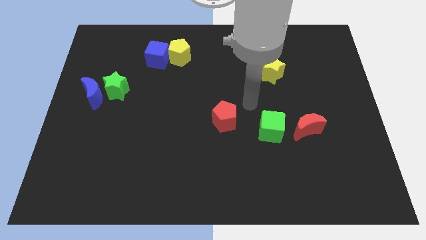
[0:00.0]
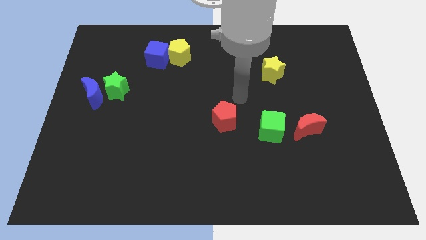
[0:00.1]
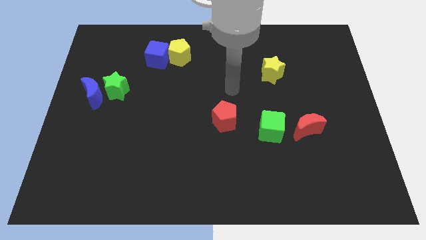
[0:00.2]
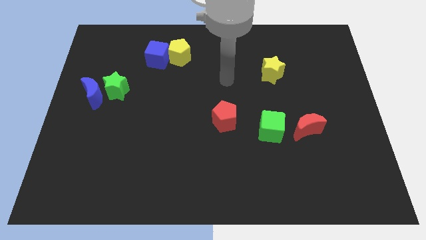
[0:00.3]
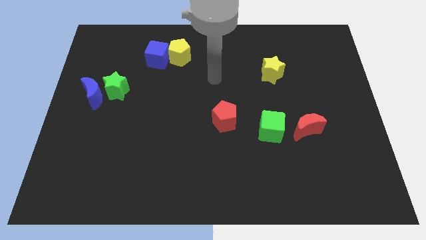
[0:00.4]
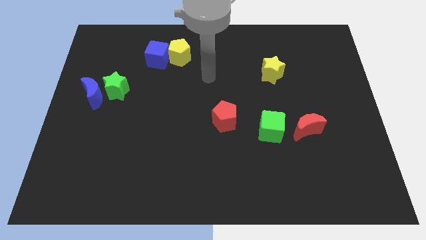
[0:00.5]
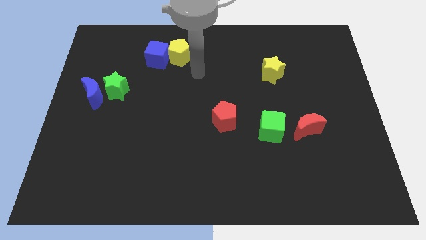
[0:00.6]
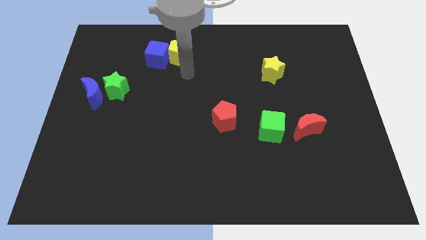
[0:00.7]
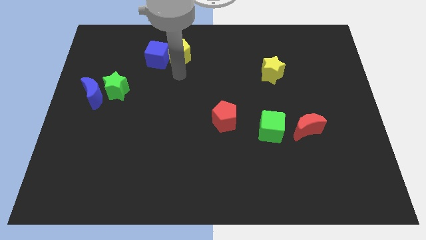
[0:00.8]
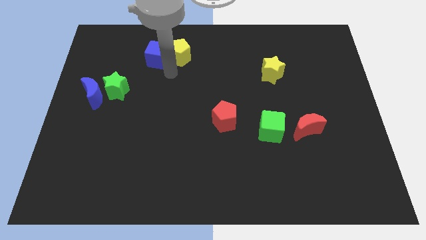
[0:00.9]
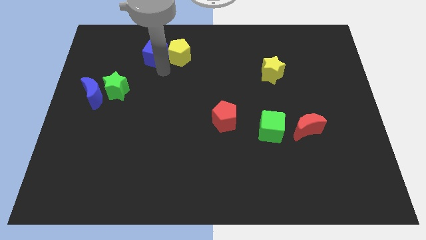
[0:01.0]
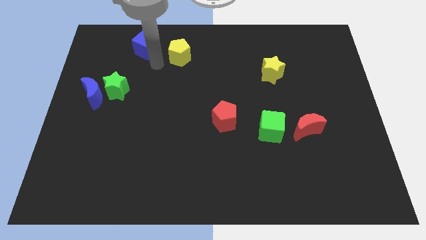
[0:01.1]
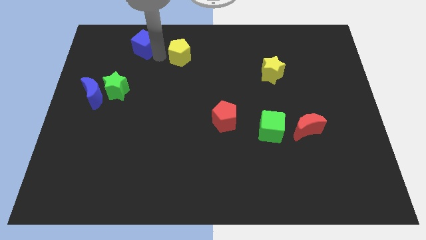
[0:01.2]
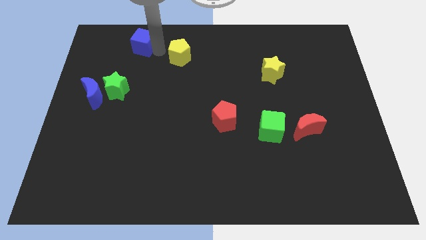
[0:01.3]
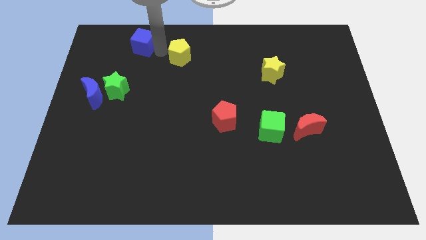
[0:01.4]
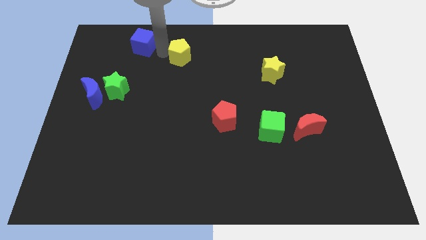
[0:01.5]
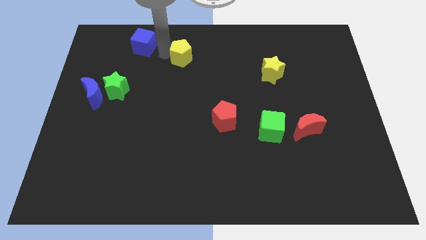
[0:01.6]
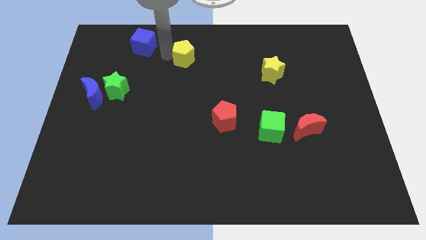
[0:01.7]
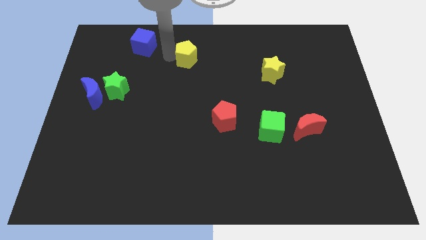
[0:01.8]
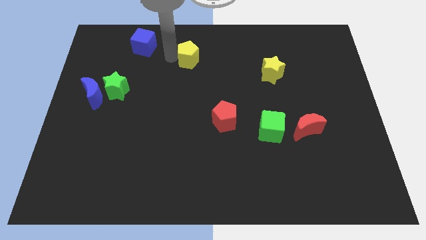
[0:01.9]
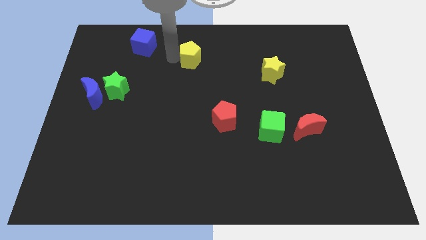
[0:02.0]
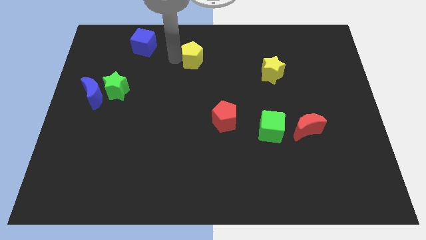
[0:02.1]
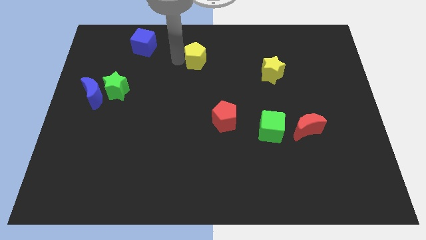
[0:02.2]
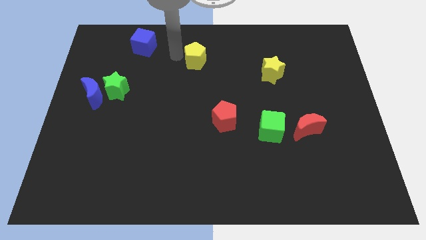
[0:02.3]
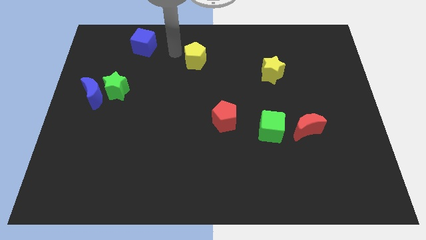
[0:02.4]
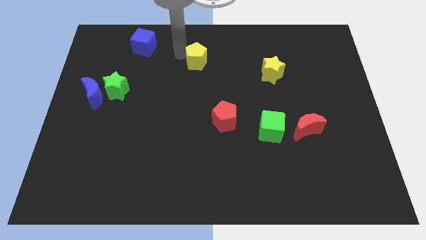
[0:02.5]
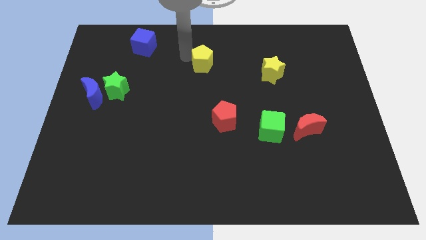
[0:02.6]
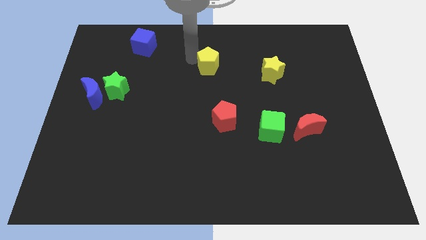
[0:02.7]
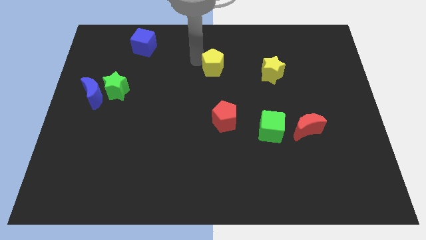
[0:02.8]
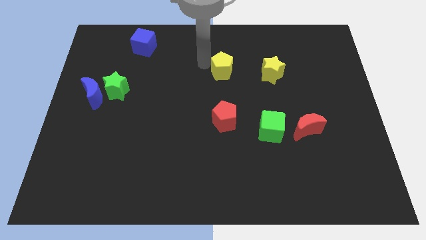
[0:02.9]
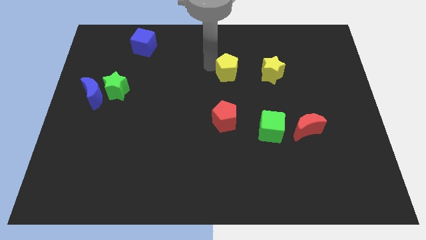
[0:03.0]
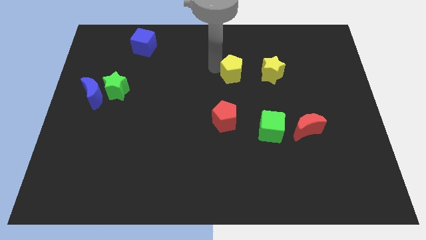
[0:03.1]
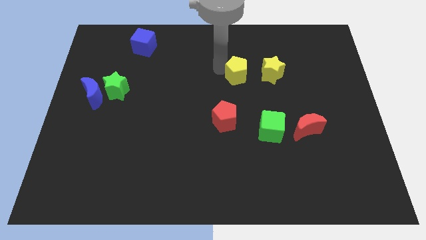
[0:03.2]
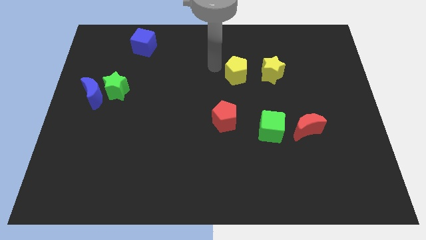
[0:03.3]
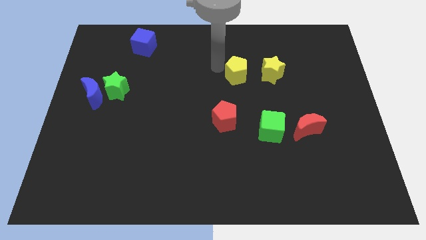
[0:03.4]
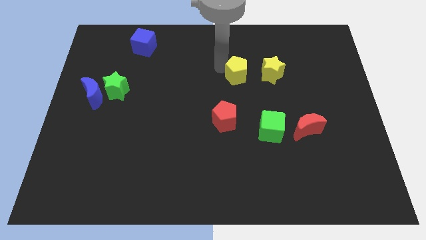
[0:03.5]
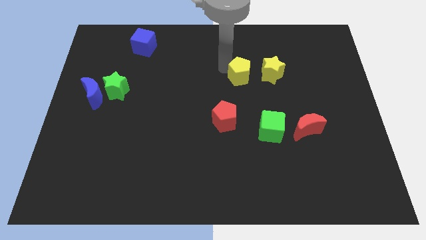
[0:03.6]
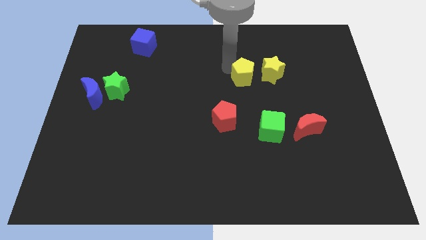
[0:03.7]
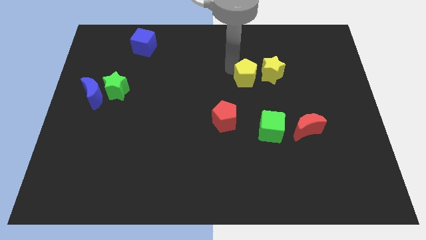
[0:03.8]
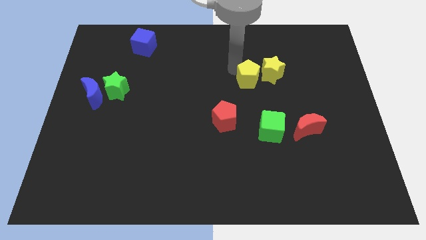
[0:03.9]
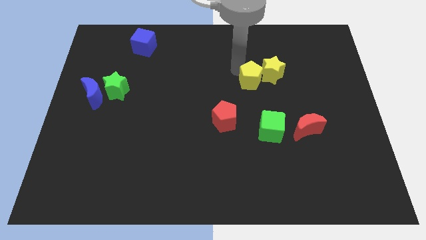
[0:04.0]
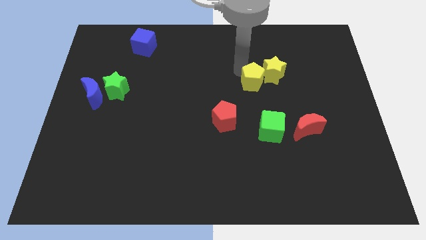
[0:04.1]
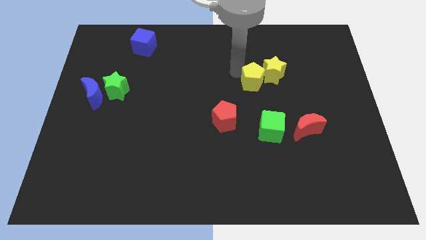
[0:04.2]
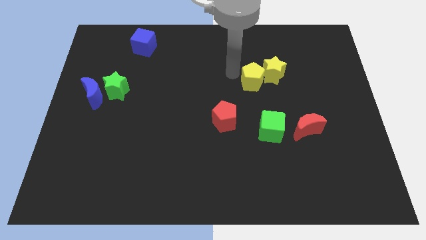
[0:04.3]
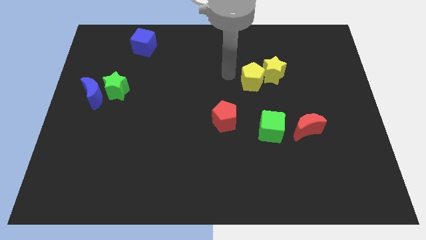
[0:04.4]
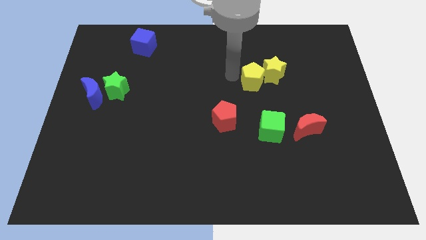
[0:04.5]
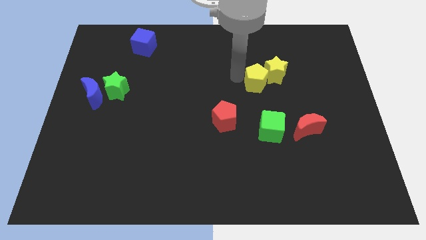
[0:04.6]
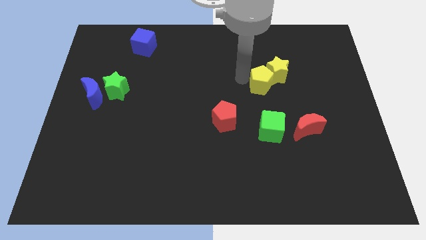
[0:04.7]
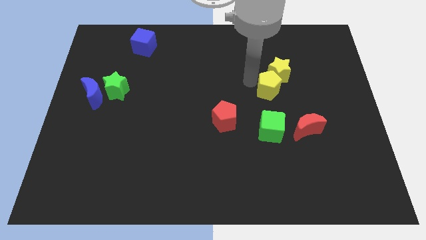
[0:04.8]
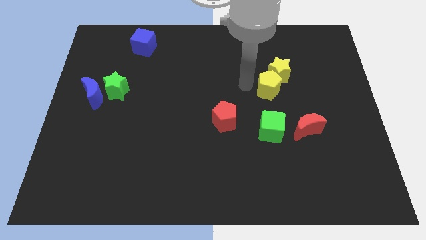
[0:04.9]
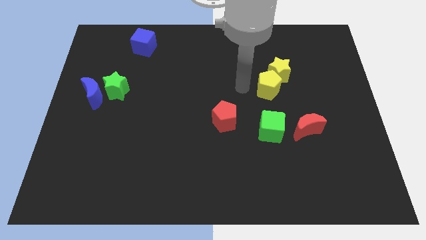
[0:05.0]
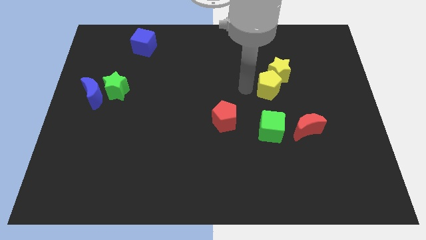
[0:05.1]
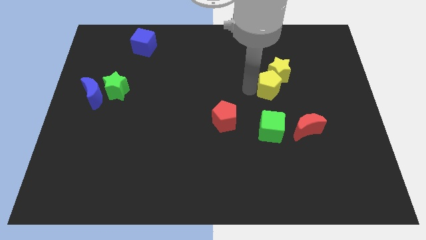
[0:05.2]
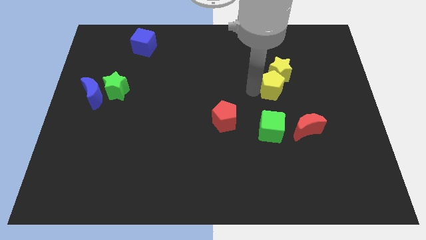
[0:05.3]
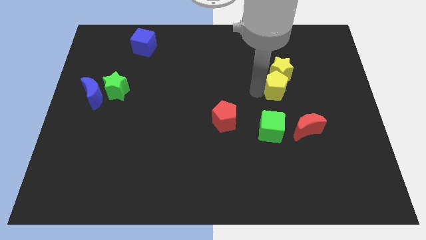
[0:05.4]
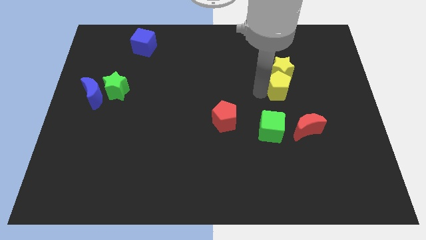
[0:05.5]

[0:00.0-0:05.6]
move the yellow pentagon diagonally down and to the right of the yellow star

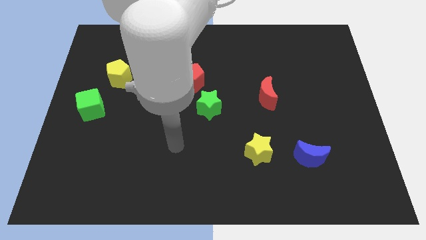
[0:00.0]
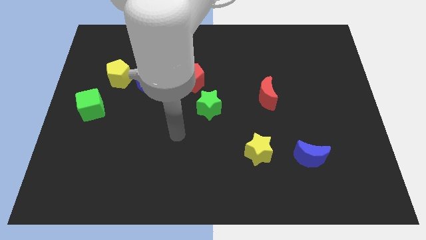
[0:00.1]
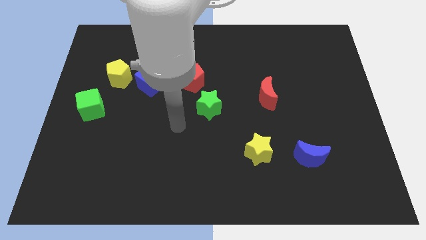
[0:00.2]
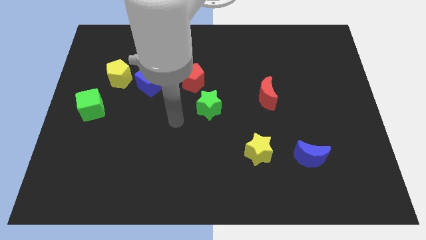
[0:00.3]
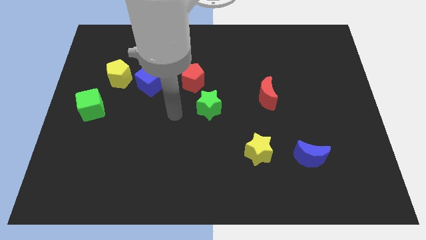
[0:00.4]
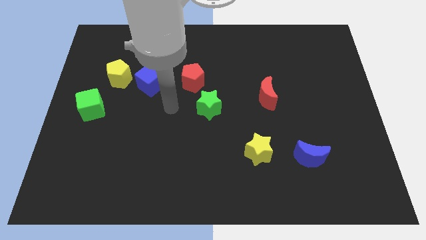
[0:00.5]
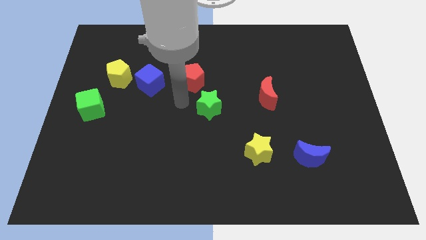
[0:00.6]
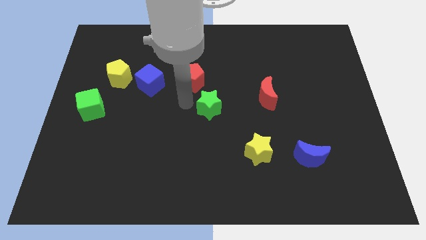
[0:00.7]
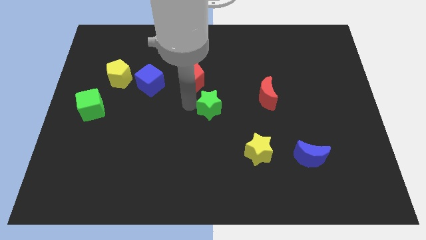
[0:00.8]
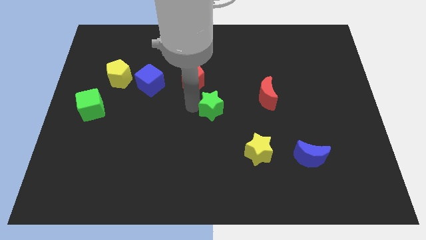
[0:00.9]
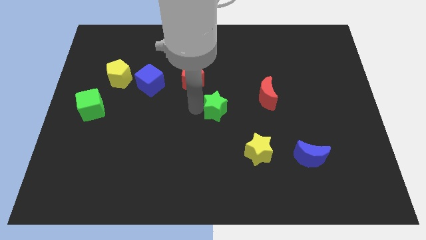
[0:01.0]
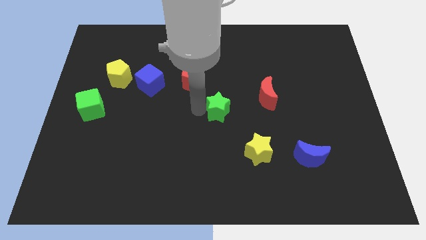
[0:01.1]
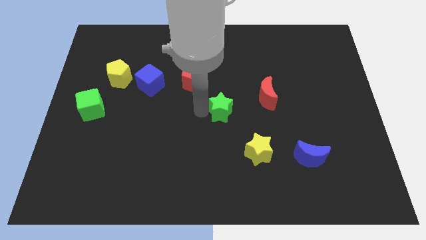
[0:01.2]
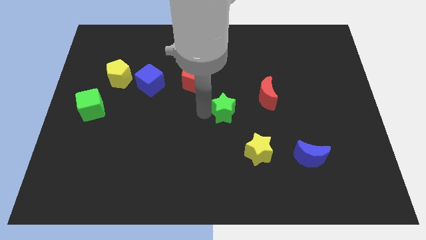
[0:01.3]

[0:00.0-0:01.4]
put the green star to the bottom left of the red moon
